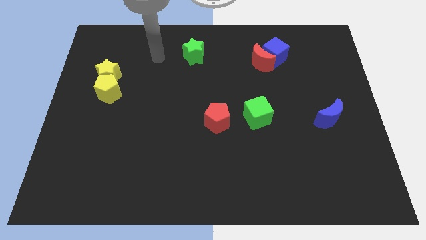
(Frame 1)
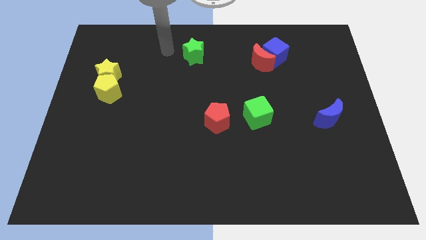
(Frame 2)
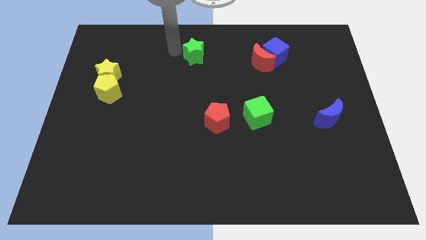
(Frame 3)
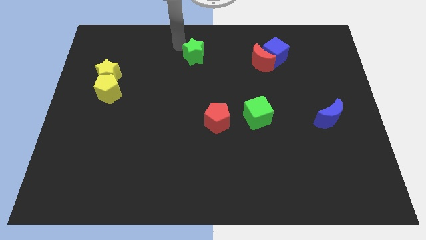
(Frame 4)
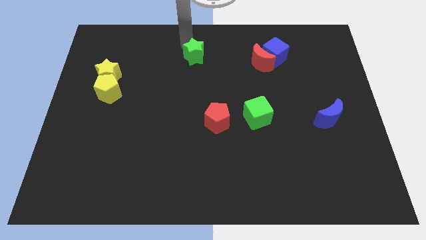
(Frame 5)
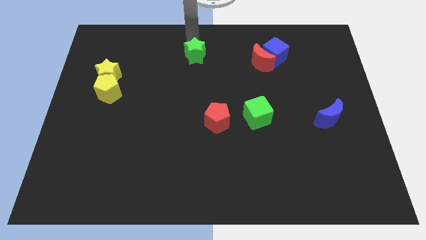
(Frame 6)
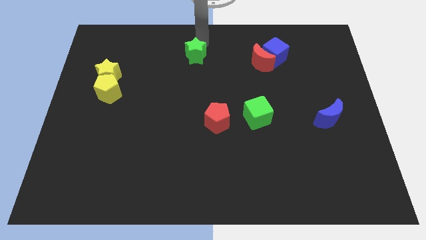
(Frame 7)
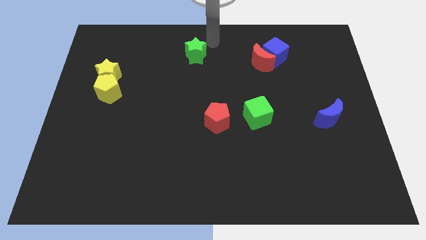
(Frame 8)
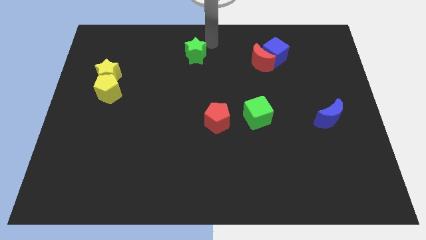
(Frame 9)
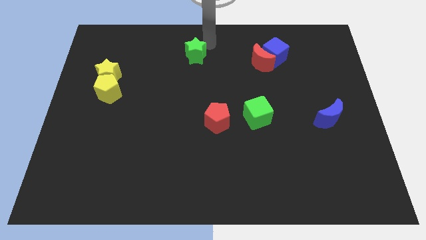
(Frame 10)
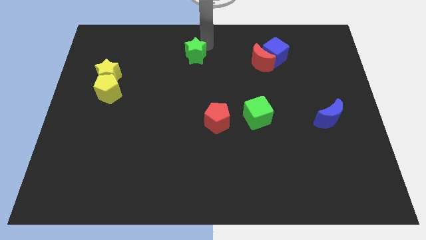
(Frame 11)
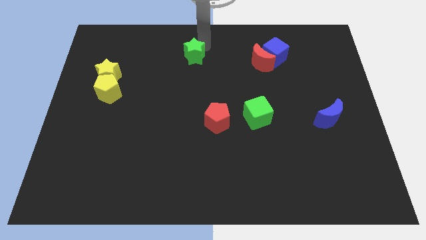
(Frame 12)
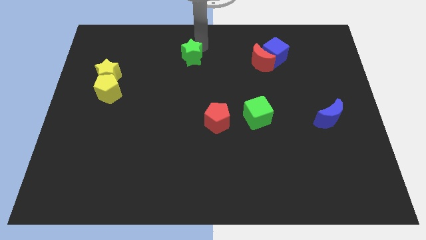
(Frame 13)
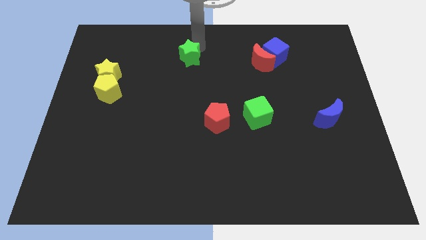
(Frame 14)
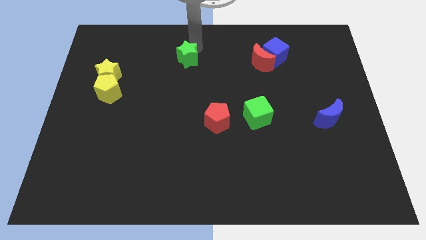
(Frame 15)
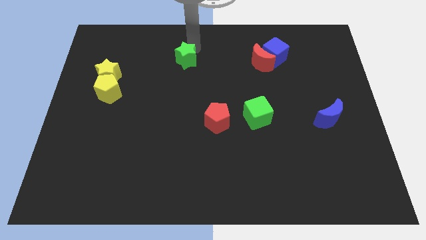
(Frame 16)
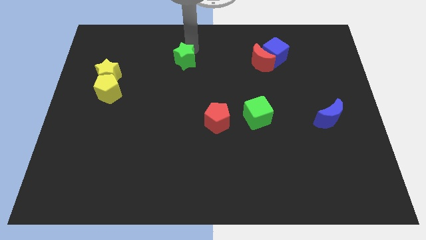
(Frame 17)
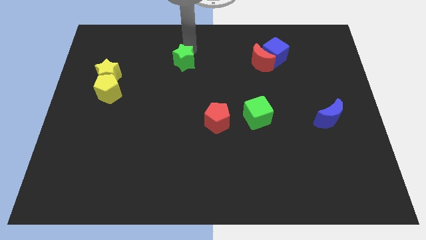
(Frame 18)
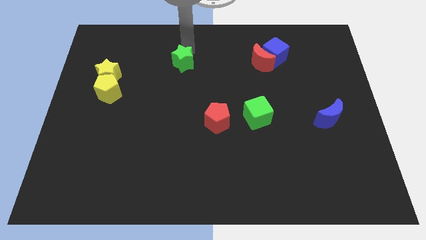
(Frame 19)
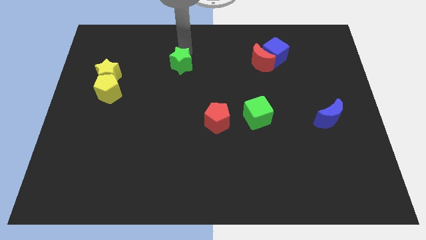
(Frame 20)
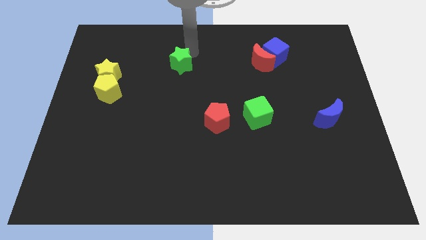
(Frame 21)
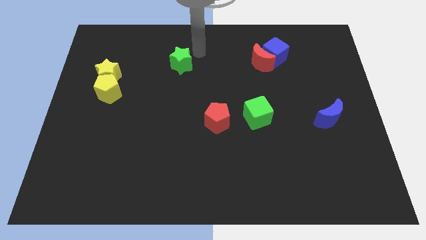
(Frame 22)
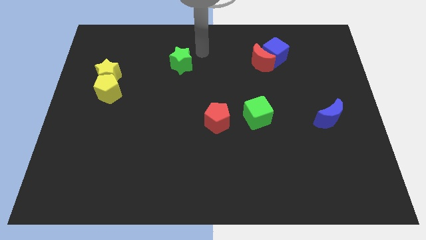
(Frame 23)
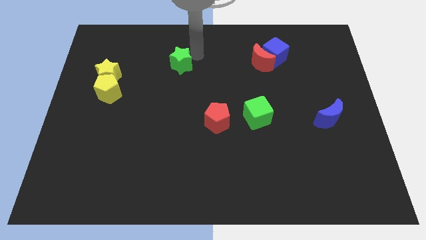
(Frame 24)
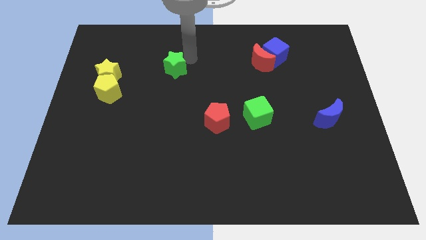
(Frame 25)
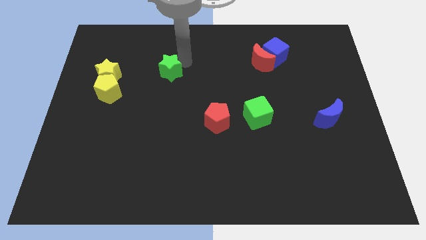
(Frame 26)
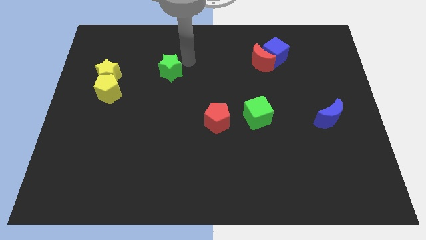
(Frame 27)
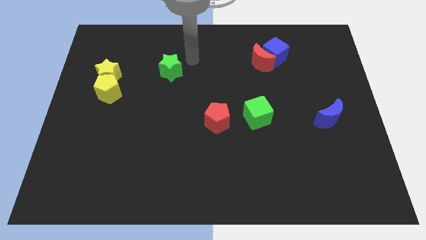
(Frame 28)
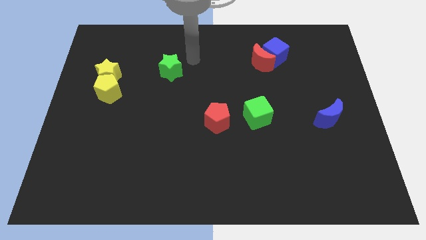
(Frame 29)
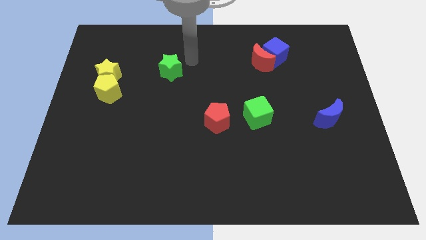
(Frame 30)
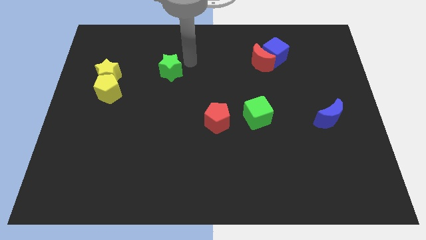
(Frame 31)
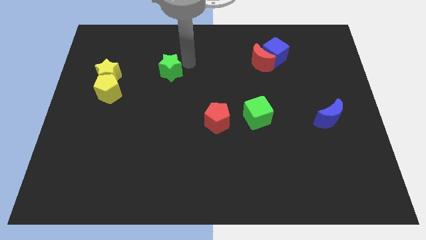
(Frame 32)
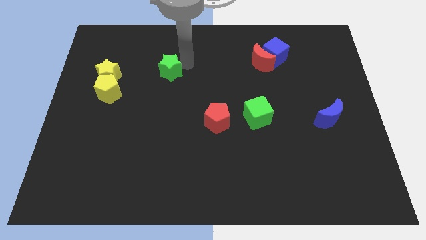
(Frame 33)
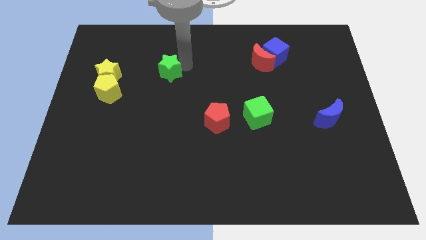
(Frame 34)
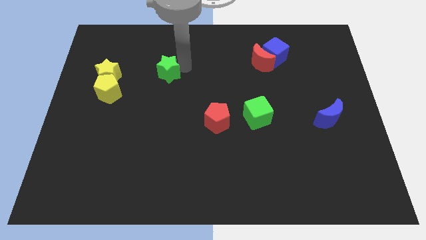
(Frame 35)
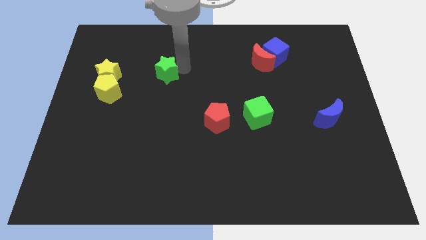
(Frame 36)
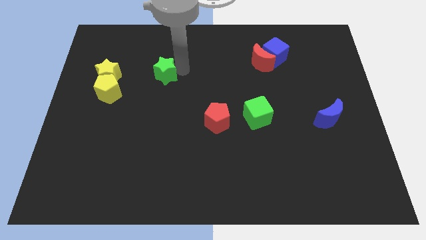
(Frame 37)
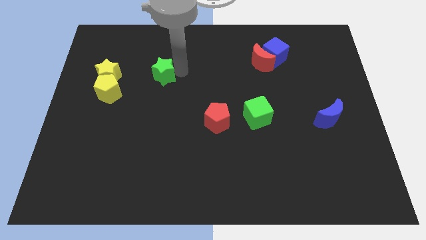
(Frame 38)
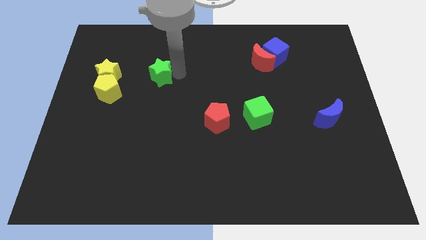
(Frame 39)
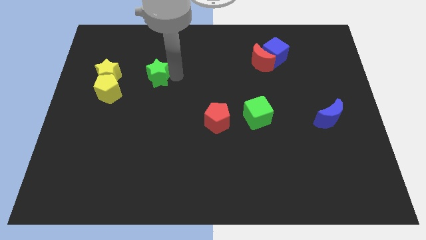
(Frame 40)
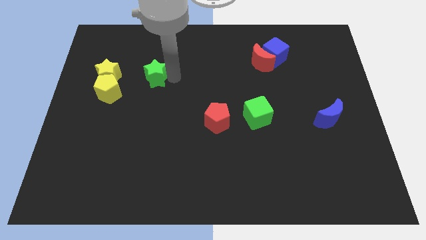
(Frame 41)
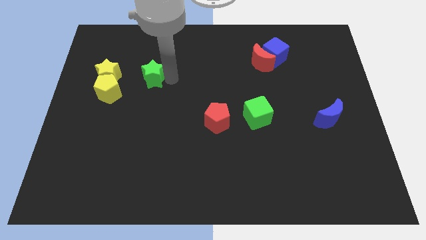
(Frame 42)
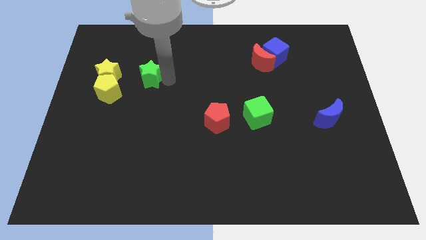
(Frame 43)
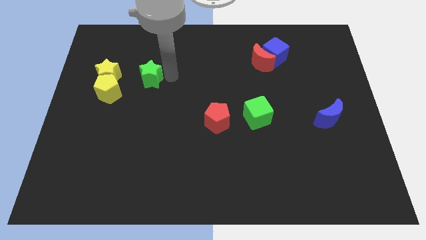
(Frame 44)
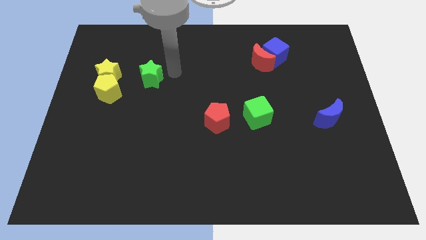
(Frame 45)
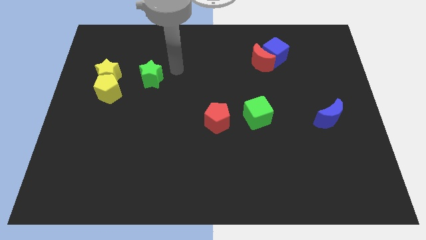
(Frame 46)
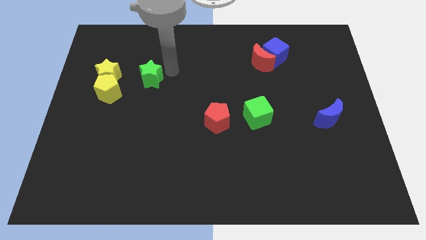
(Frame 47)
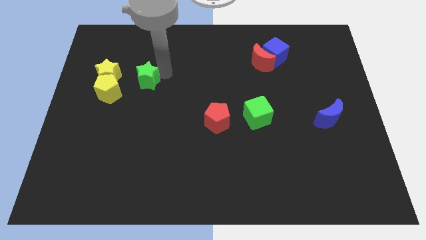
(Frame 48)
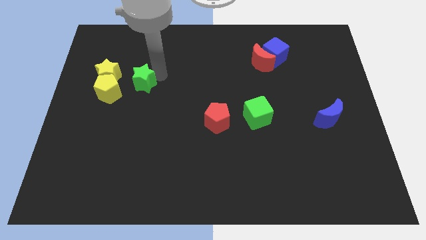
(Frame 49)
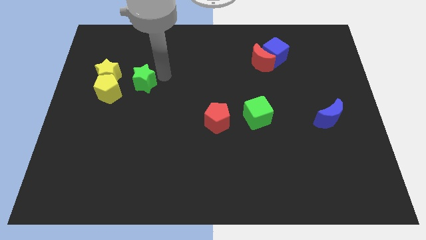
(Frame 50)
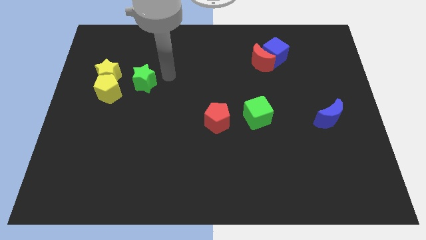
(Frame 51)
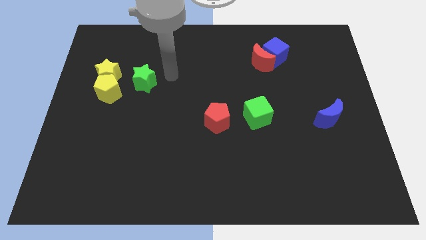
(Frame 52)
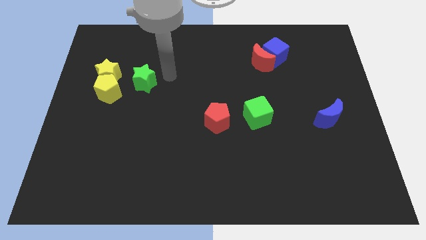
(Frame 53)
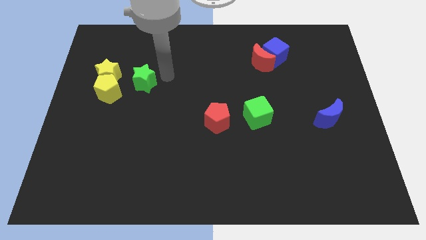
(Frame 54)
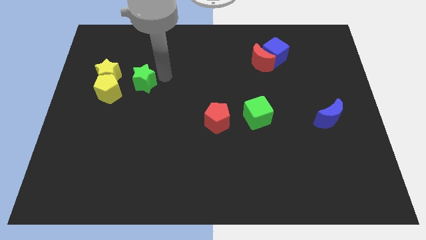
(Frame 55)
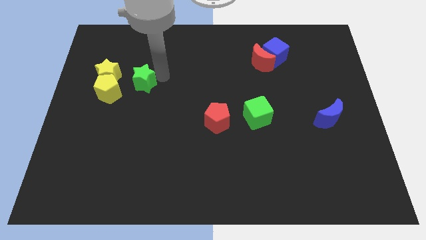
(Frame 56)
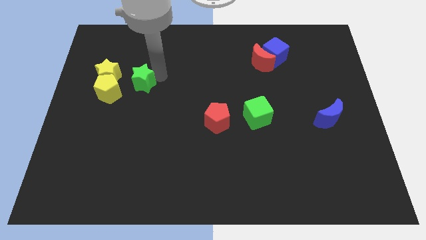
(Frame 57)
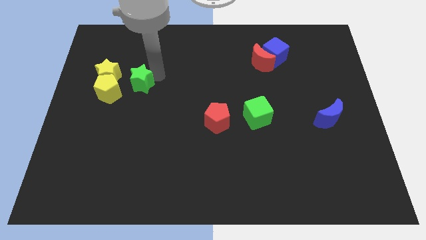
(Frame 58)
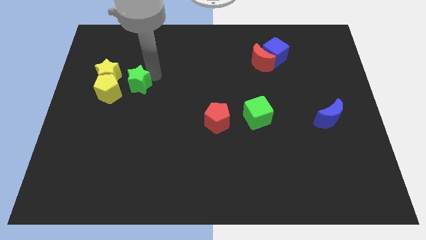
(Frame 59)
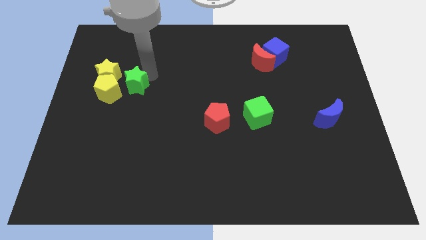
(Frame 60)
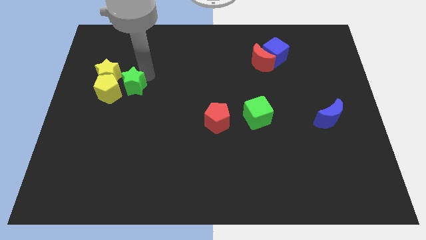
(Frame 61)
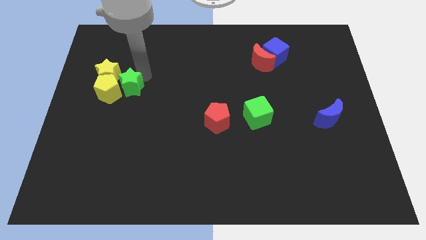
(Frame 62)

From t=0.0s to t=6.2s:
put the green star next to the yellow pentagon

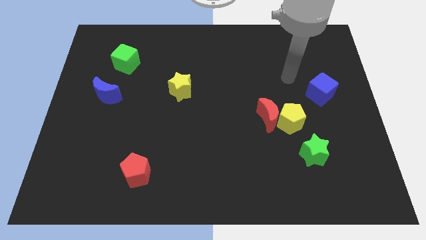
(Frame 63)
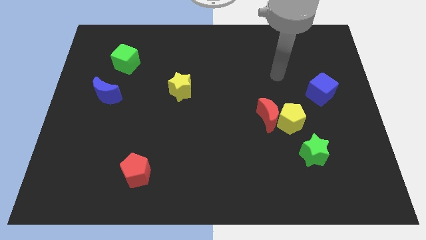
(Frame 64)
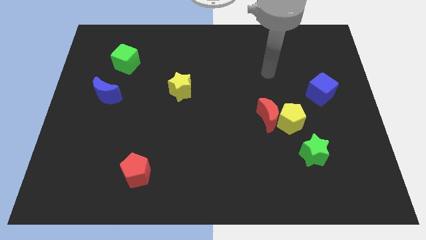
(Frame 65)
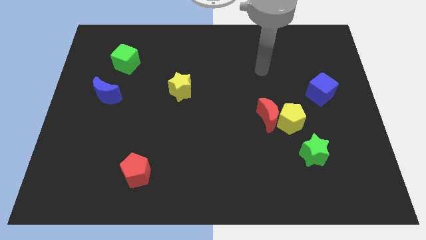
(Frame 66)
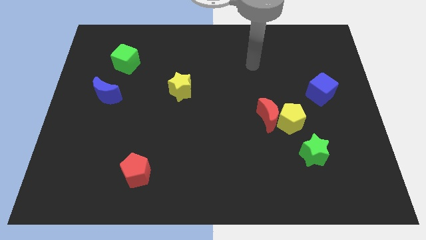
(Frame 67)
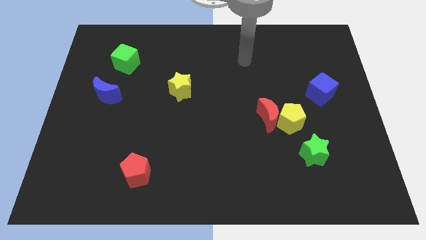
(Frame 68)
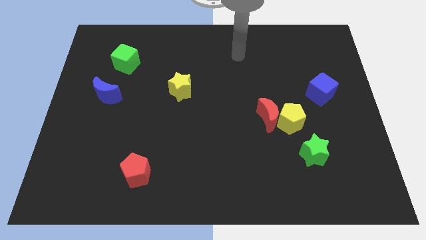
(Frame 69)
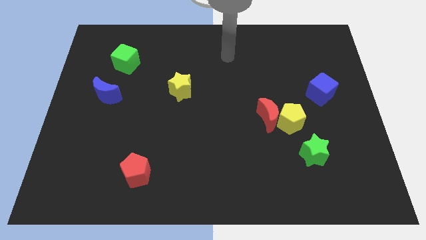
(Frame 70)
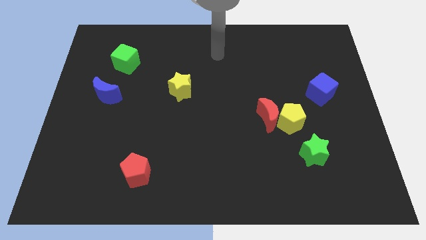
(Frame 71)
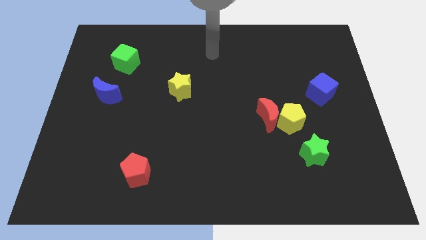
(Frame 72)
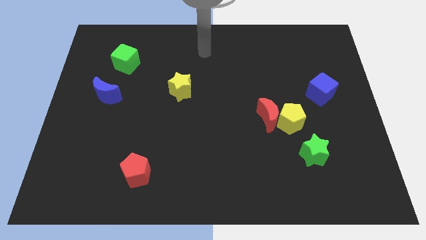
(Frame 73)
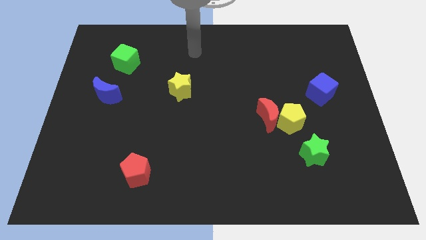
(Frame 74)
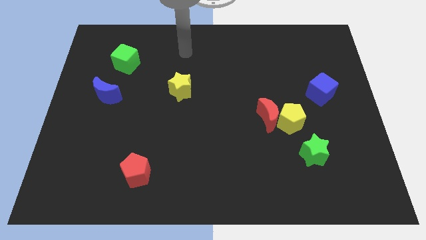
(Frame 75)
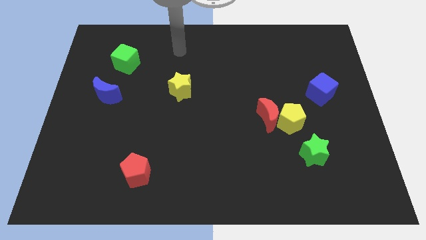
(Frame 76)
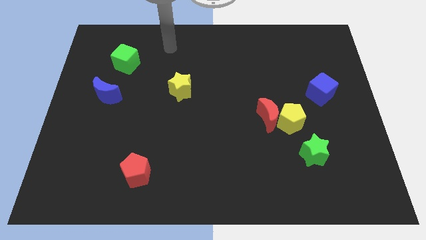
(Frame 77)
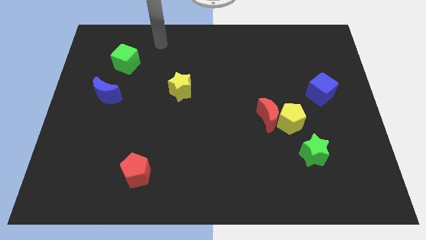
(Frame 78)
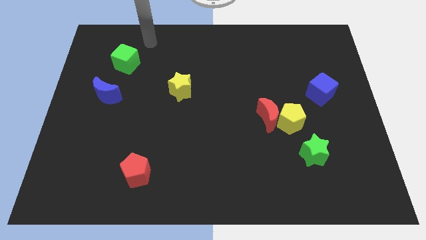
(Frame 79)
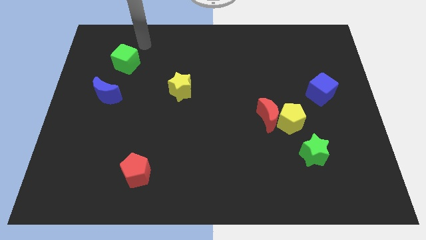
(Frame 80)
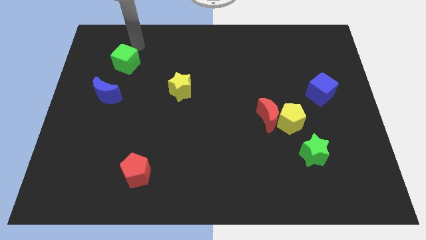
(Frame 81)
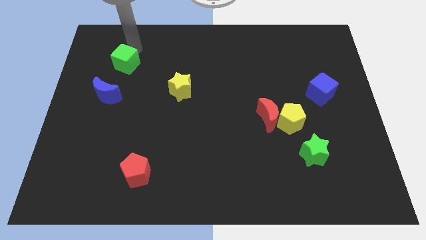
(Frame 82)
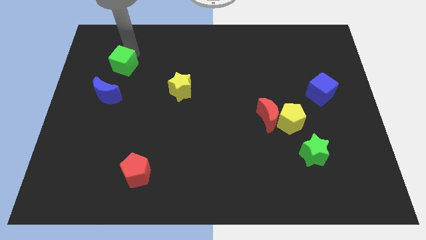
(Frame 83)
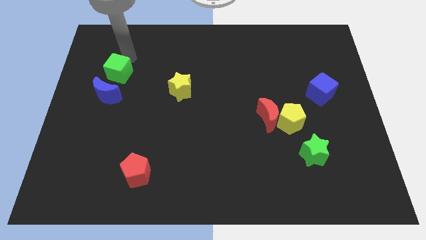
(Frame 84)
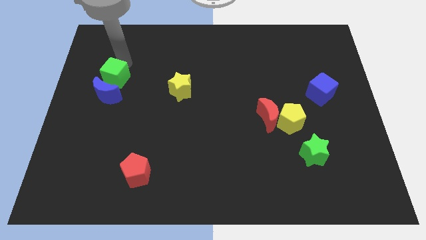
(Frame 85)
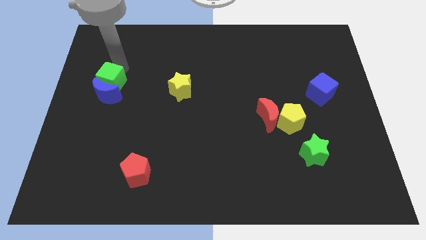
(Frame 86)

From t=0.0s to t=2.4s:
slide the green cube towards the blue moon
